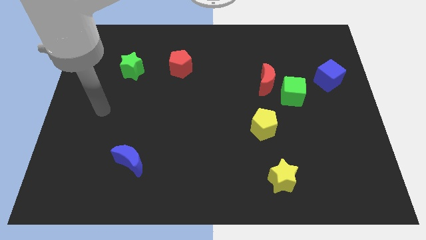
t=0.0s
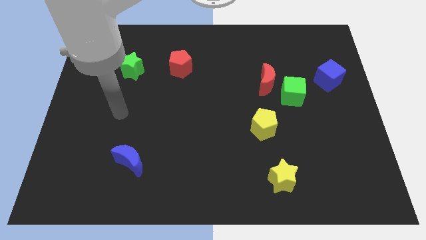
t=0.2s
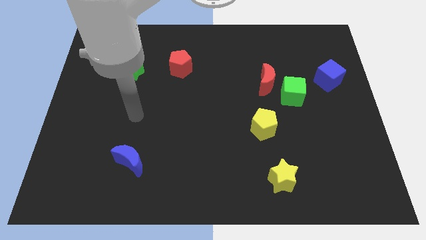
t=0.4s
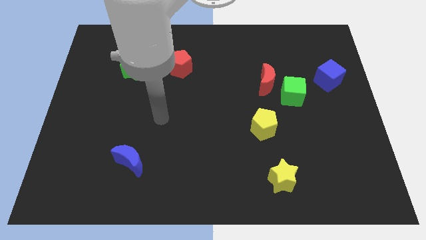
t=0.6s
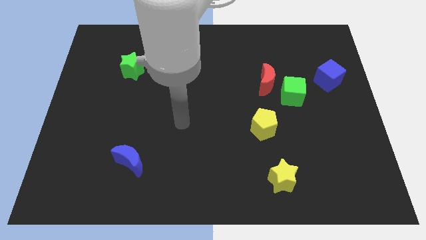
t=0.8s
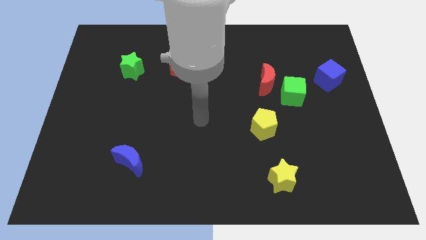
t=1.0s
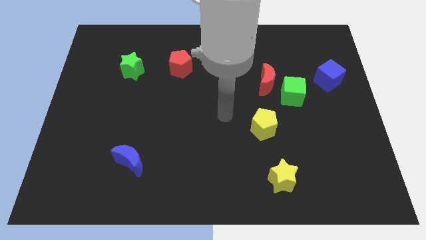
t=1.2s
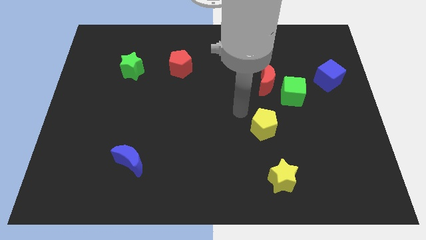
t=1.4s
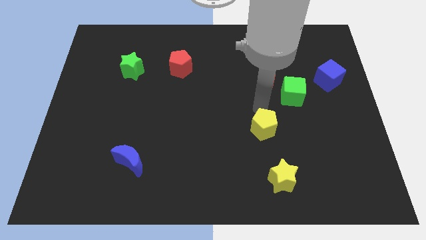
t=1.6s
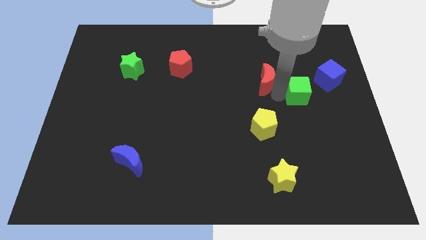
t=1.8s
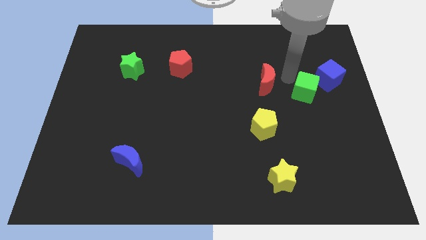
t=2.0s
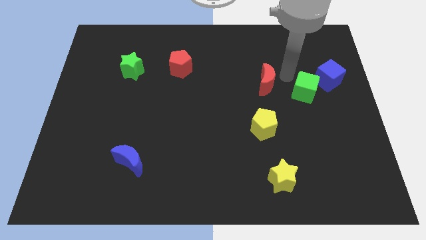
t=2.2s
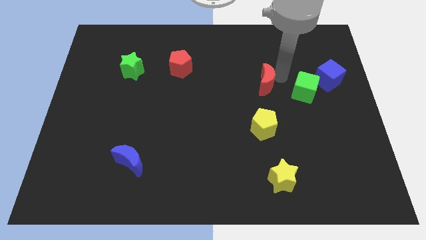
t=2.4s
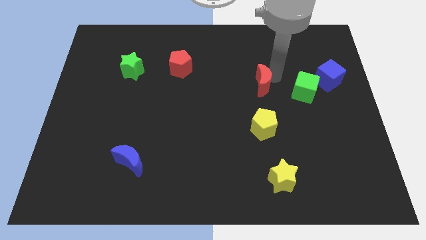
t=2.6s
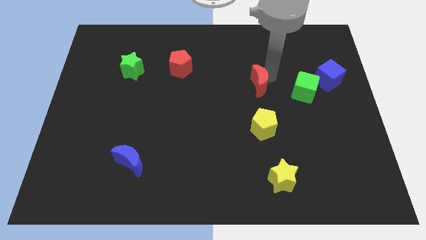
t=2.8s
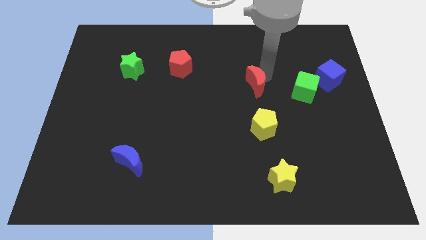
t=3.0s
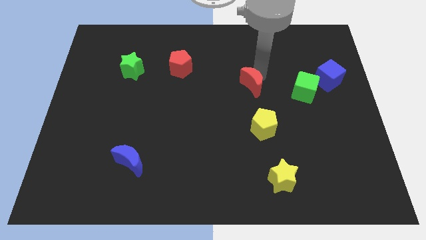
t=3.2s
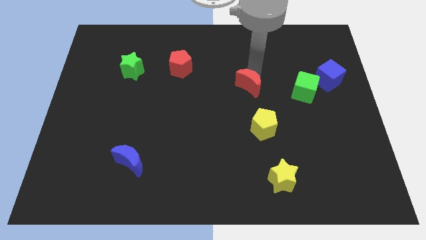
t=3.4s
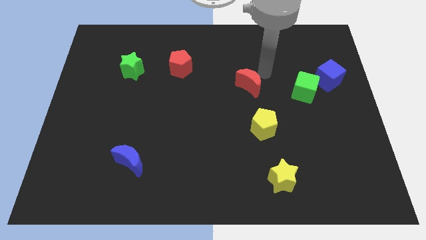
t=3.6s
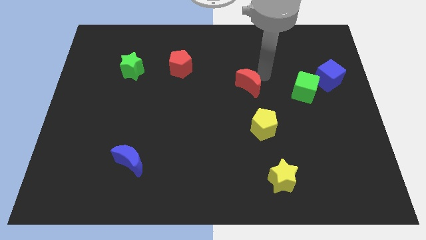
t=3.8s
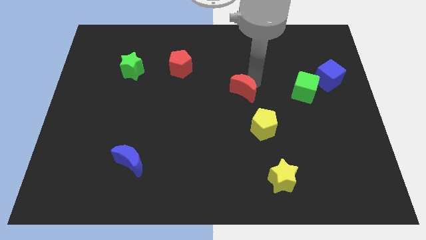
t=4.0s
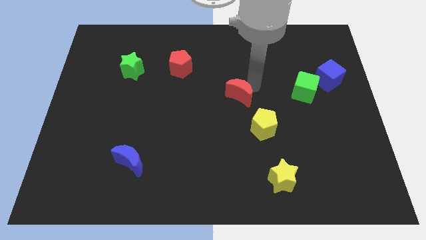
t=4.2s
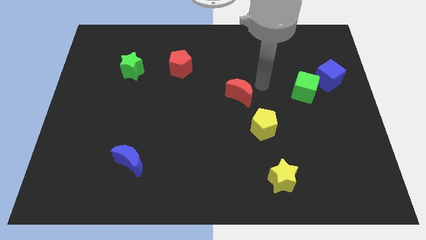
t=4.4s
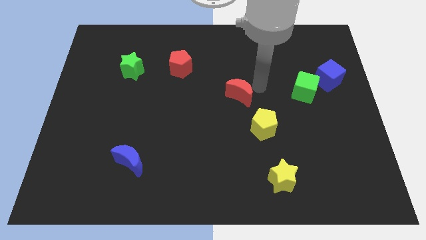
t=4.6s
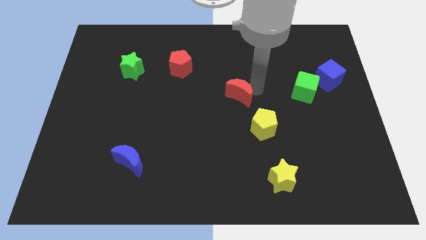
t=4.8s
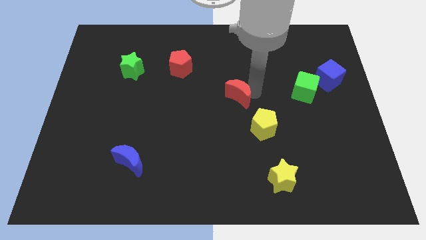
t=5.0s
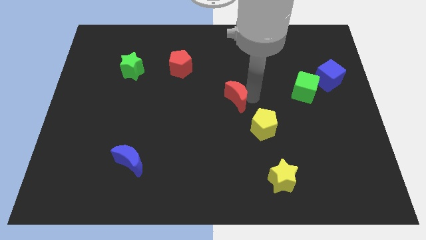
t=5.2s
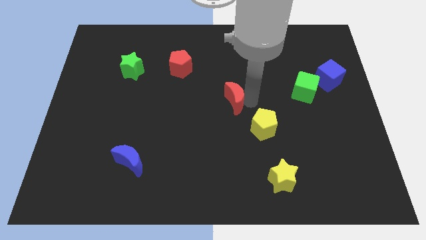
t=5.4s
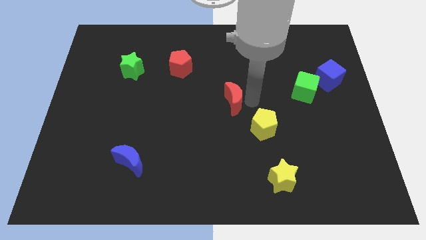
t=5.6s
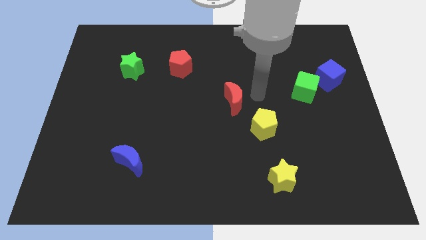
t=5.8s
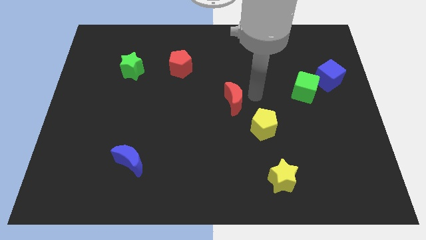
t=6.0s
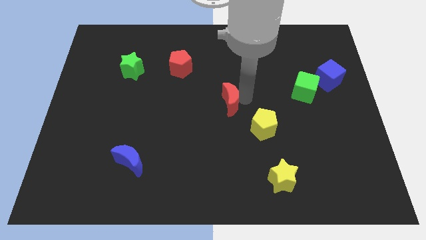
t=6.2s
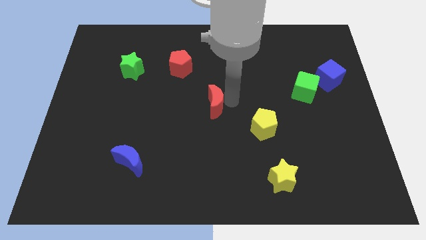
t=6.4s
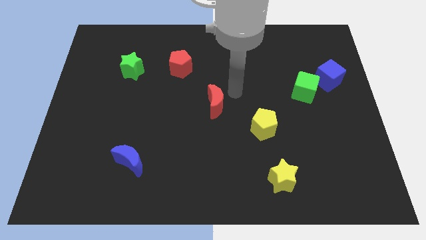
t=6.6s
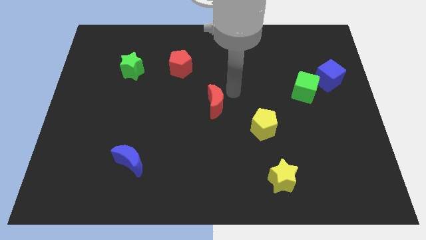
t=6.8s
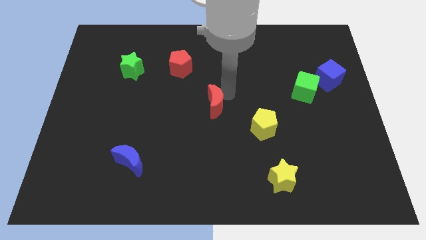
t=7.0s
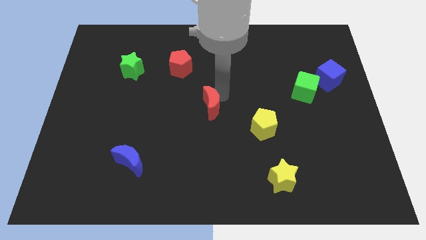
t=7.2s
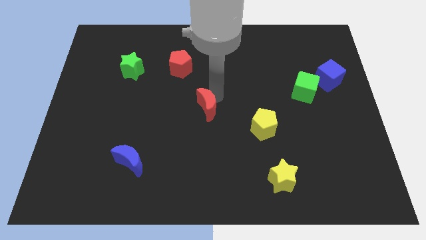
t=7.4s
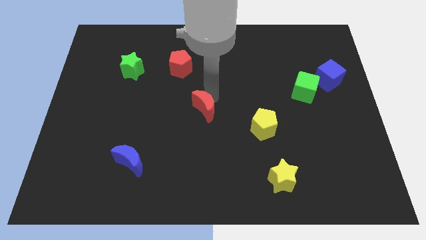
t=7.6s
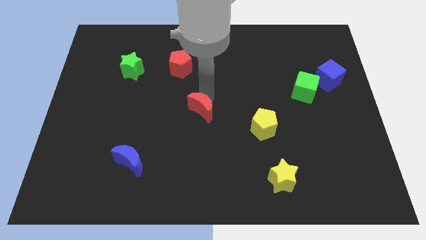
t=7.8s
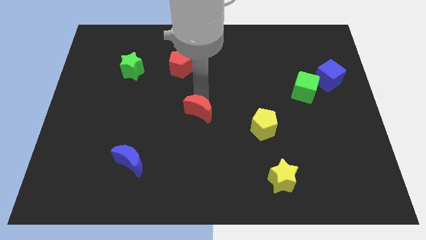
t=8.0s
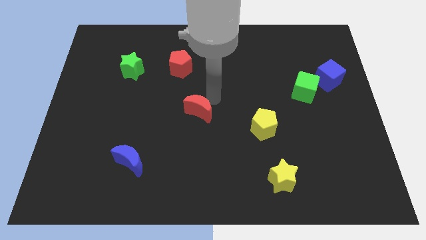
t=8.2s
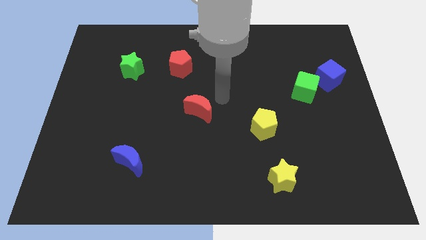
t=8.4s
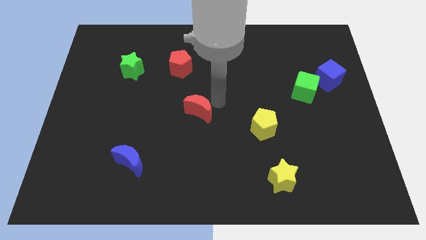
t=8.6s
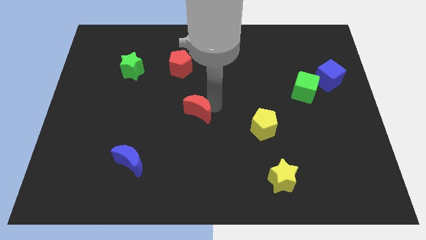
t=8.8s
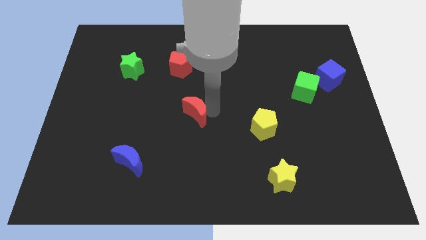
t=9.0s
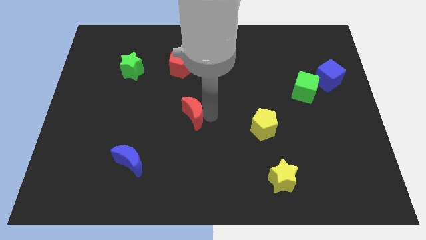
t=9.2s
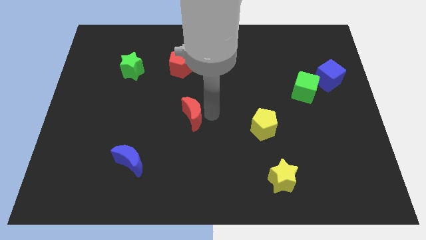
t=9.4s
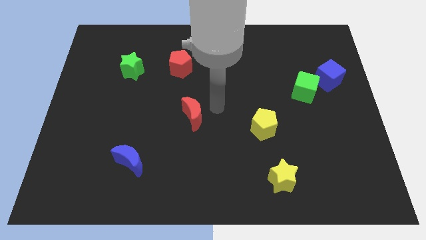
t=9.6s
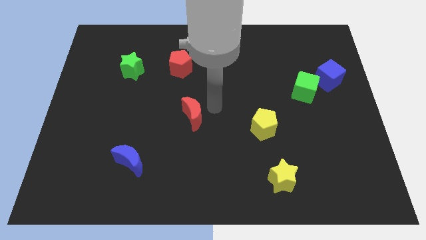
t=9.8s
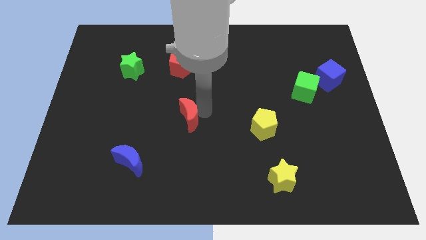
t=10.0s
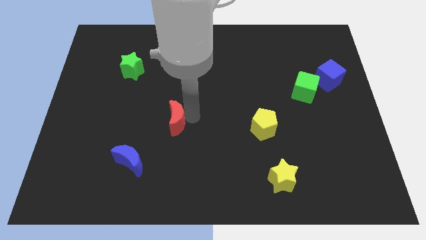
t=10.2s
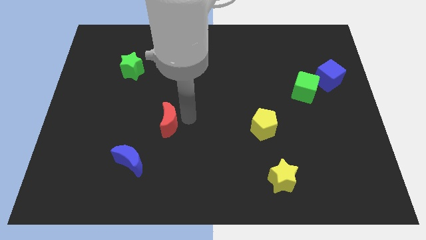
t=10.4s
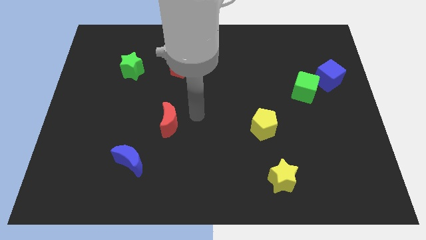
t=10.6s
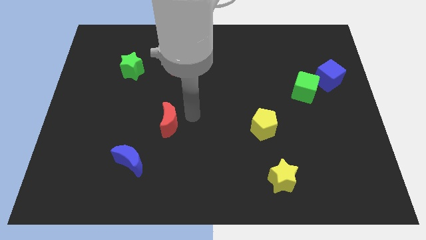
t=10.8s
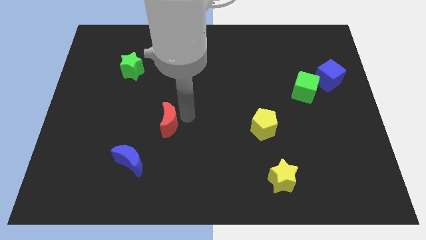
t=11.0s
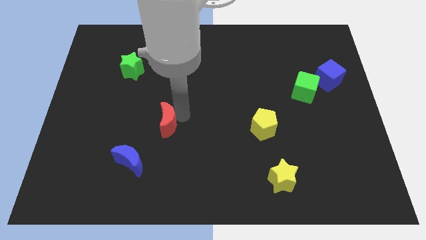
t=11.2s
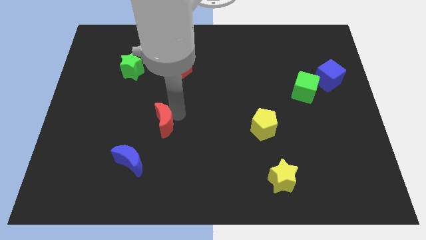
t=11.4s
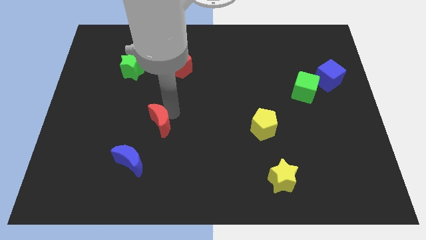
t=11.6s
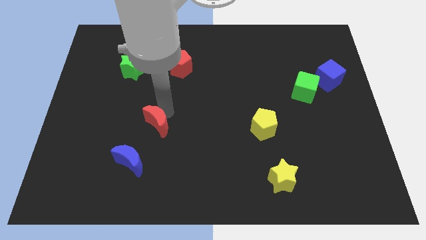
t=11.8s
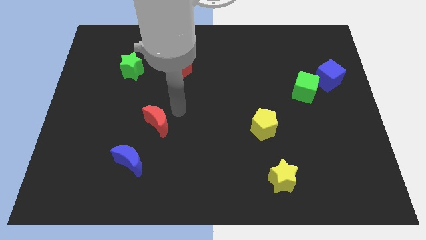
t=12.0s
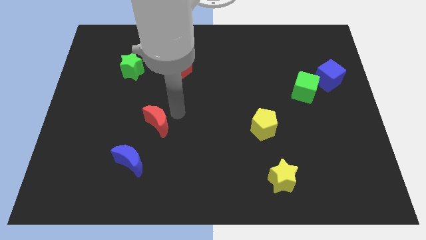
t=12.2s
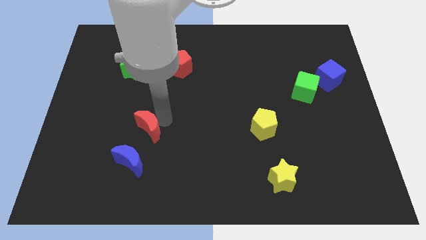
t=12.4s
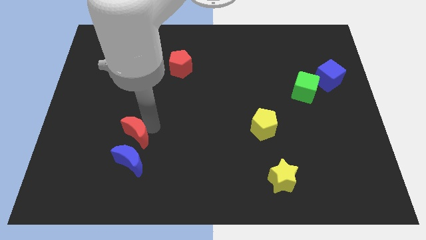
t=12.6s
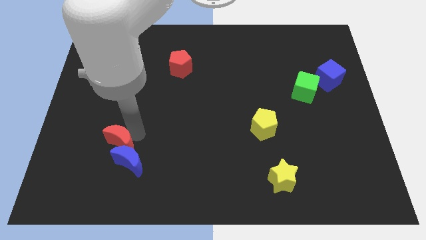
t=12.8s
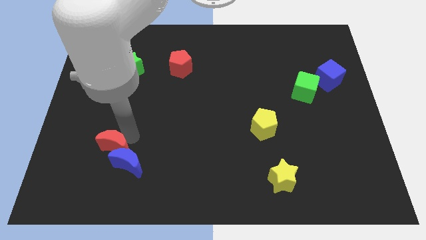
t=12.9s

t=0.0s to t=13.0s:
push the red moon just left of the blue moon

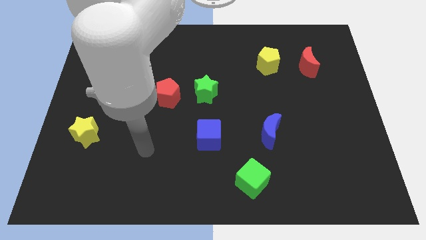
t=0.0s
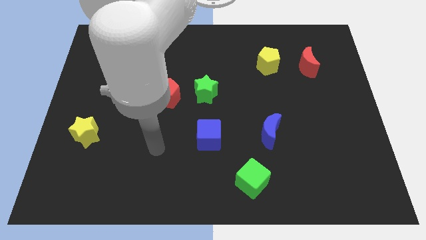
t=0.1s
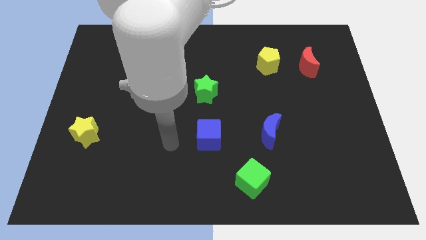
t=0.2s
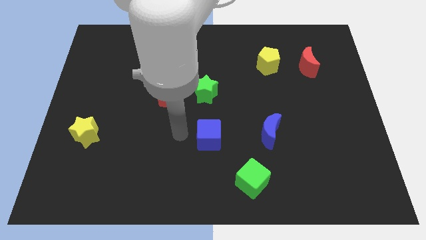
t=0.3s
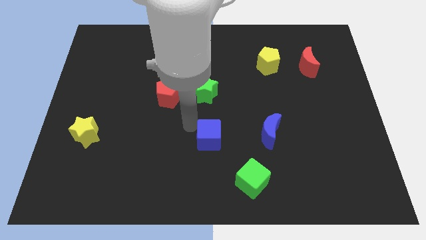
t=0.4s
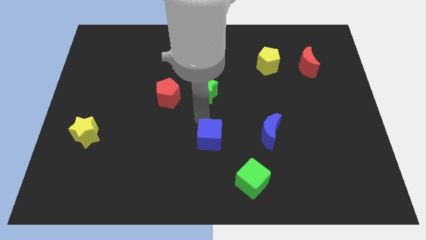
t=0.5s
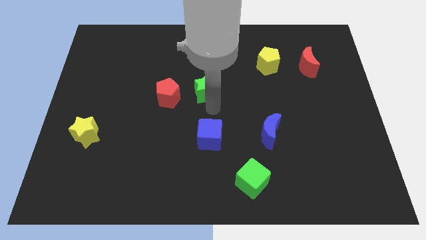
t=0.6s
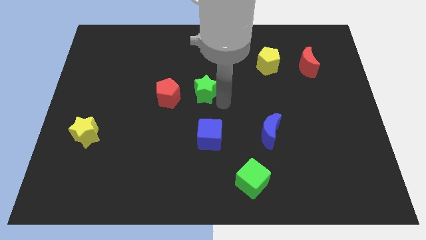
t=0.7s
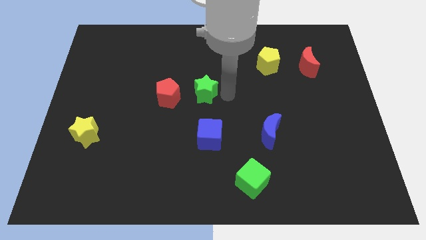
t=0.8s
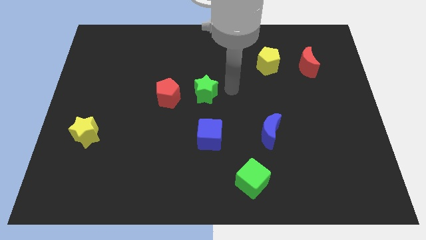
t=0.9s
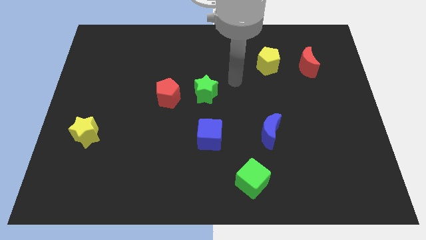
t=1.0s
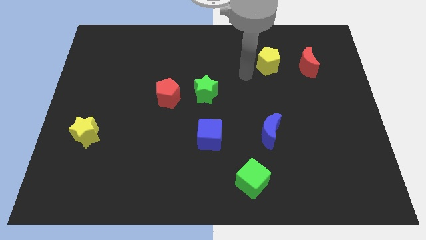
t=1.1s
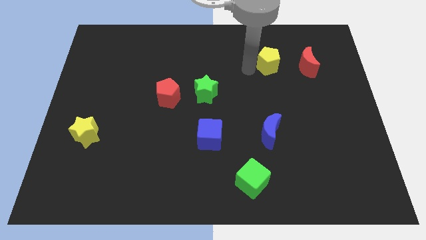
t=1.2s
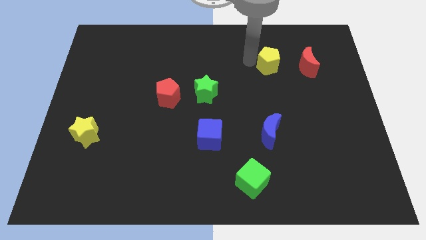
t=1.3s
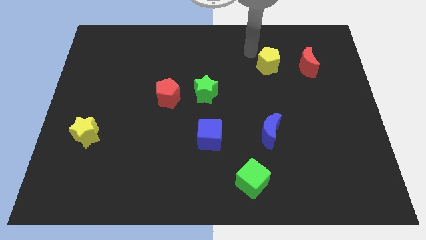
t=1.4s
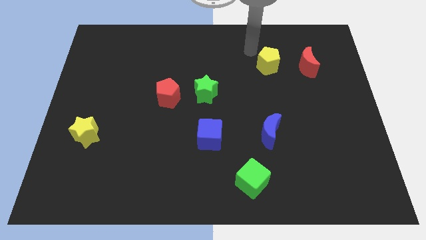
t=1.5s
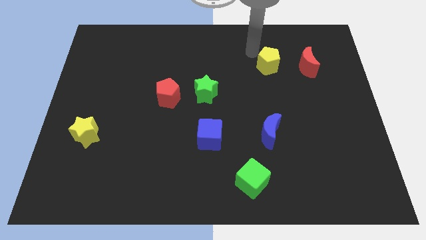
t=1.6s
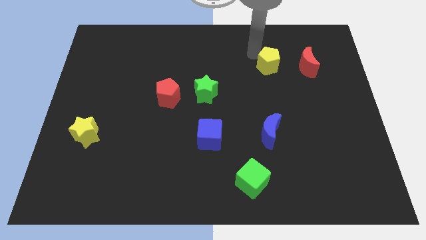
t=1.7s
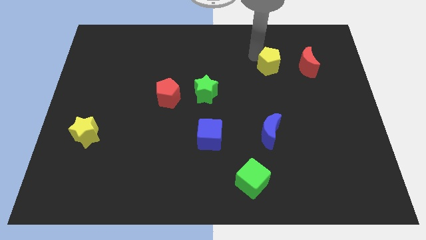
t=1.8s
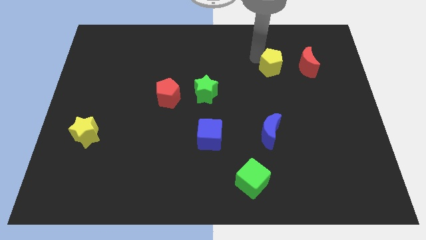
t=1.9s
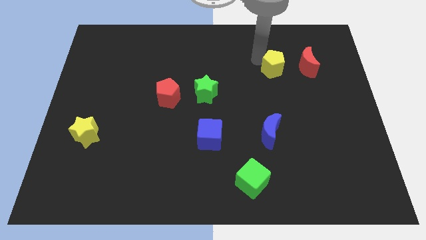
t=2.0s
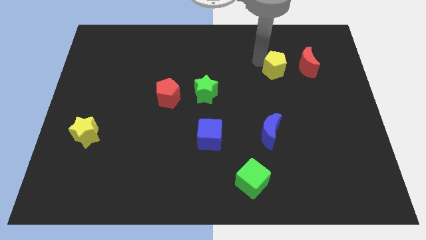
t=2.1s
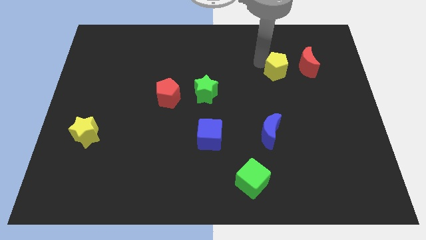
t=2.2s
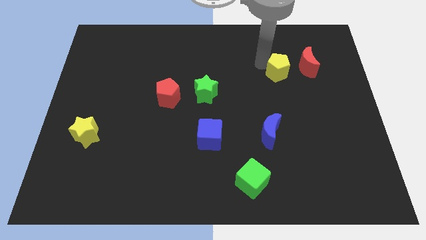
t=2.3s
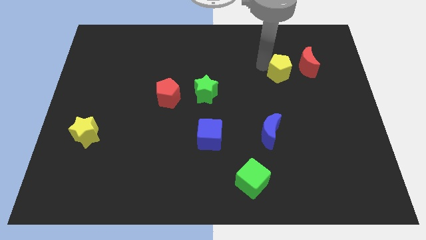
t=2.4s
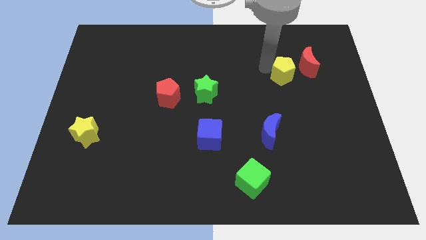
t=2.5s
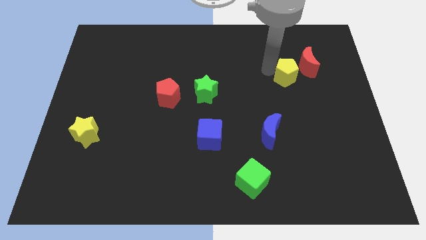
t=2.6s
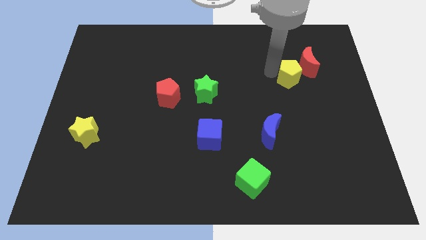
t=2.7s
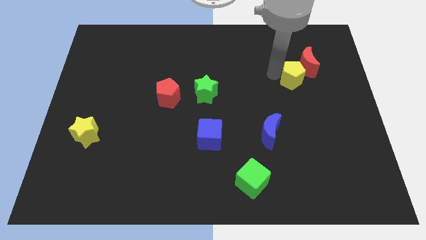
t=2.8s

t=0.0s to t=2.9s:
push the yellow pentagon to the bottom side of the red moon
